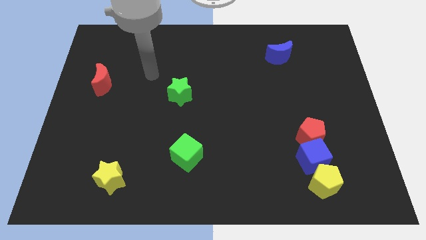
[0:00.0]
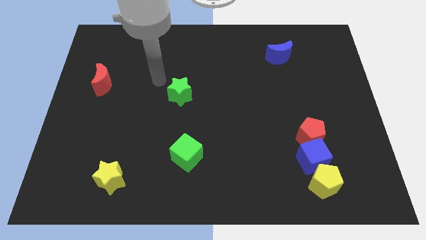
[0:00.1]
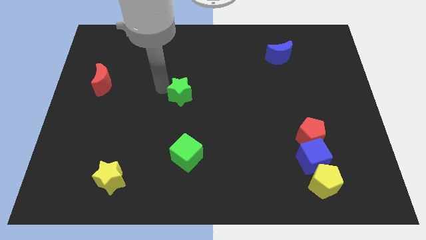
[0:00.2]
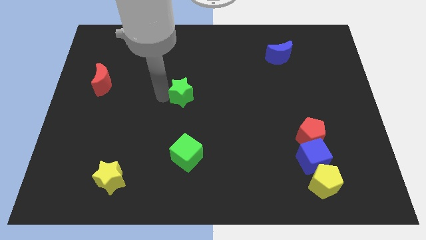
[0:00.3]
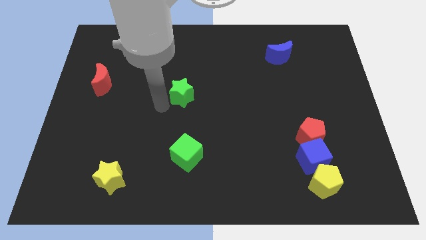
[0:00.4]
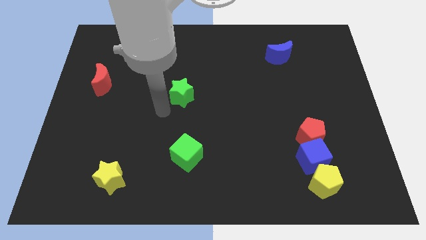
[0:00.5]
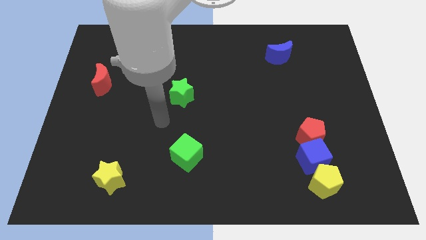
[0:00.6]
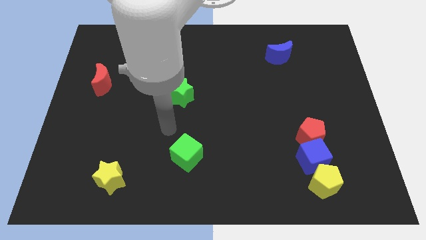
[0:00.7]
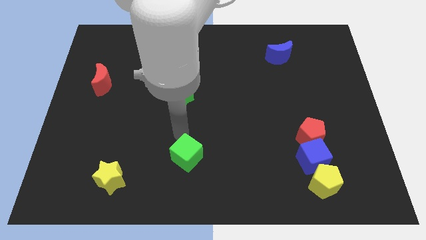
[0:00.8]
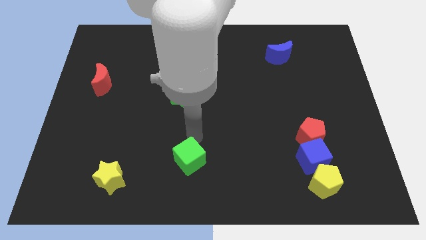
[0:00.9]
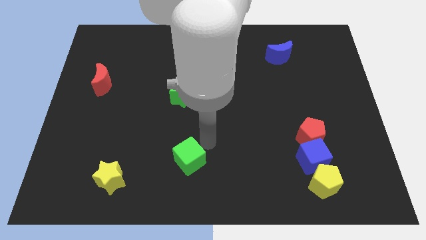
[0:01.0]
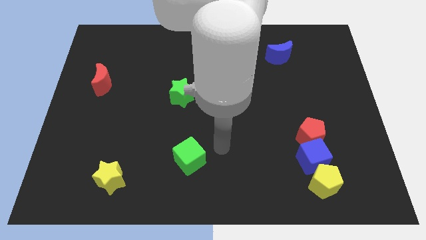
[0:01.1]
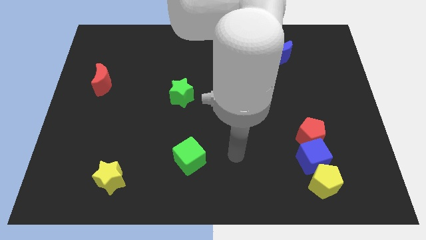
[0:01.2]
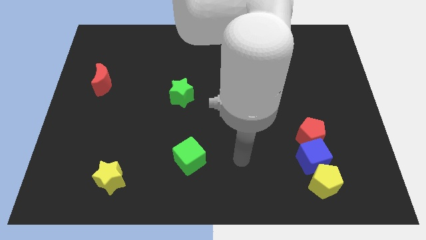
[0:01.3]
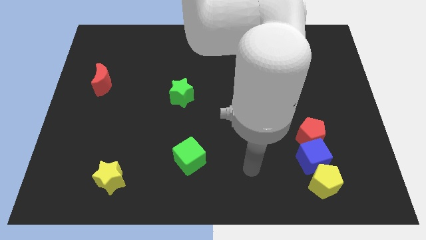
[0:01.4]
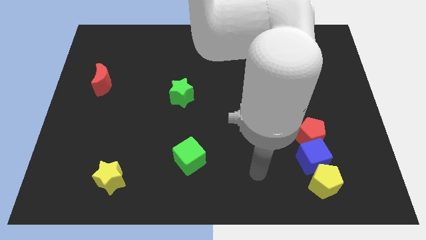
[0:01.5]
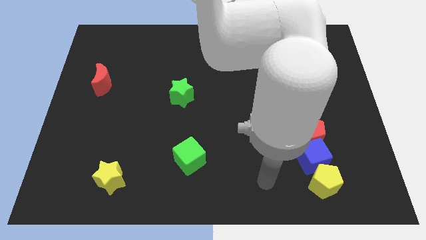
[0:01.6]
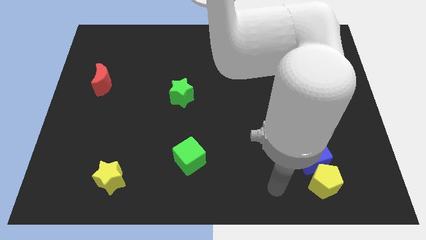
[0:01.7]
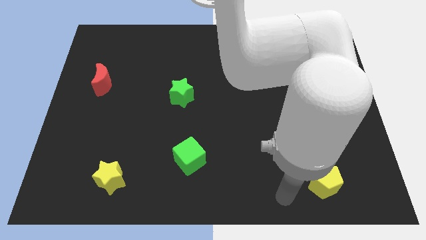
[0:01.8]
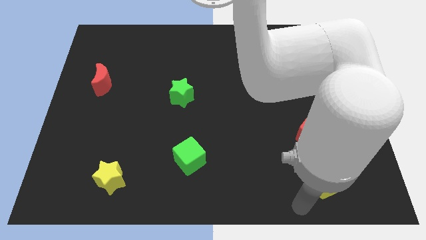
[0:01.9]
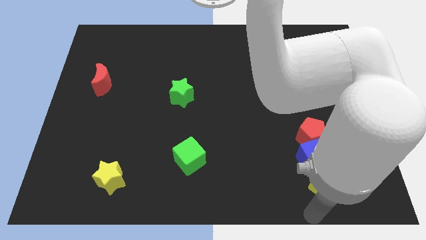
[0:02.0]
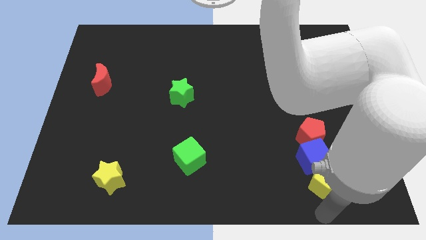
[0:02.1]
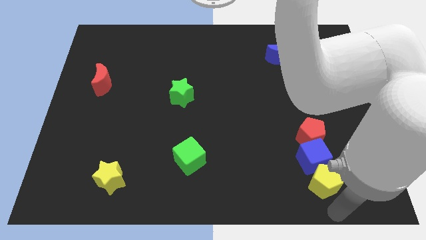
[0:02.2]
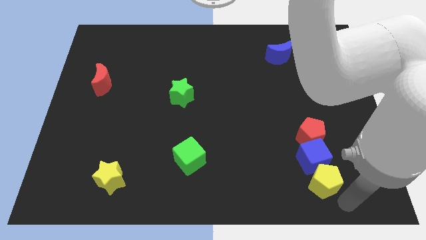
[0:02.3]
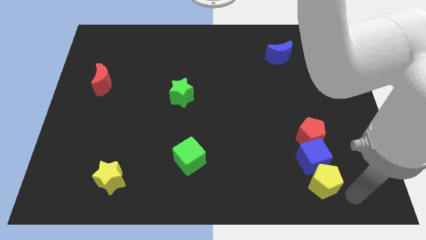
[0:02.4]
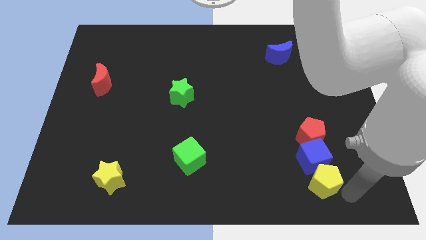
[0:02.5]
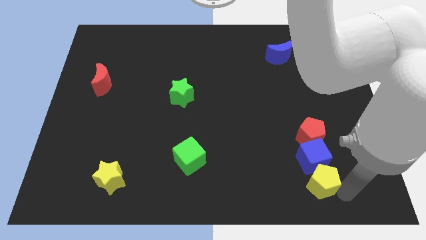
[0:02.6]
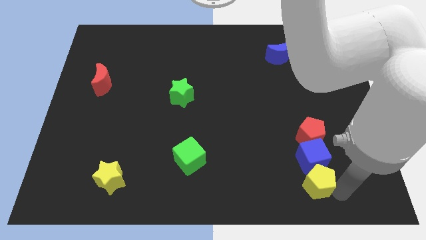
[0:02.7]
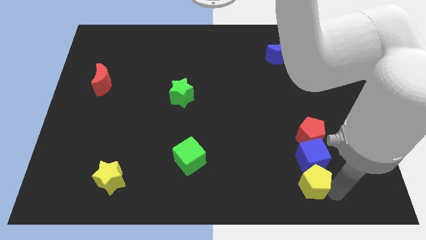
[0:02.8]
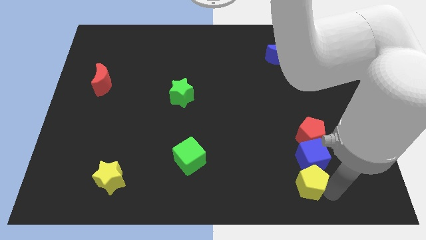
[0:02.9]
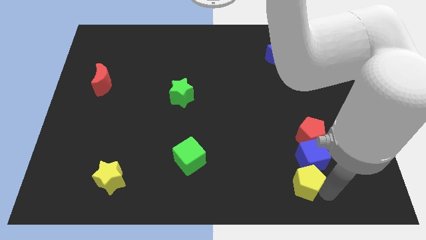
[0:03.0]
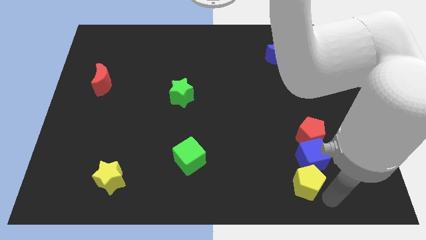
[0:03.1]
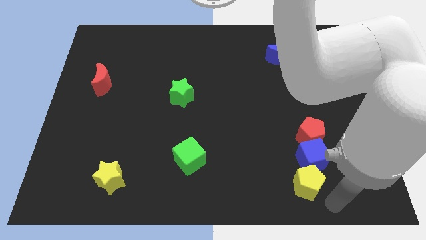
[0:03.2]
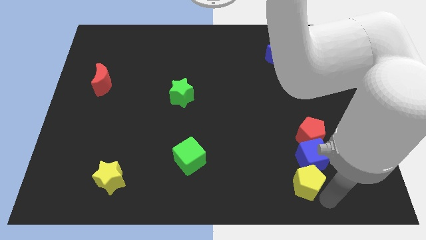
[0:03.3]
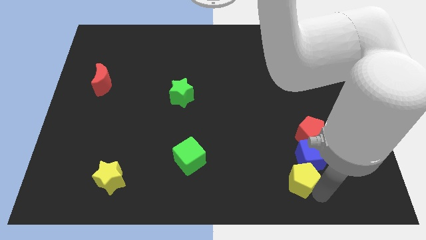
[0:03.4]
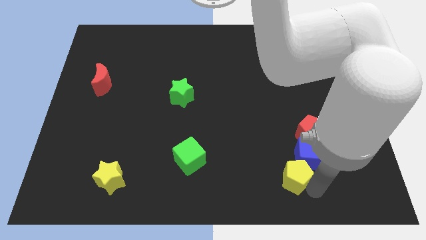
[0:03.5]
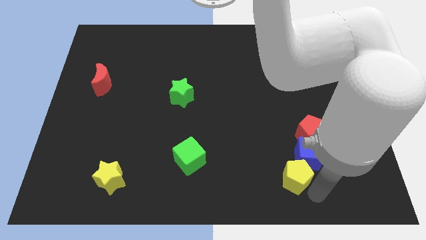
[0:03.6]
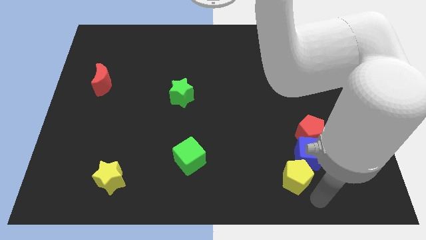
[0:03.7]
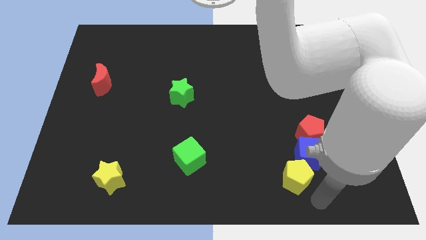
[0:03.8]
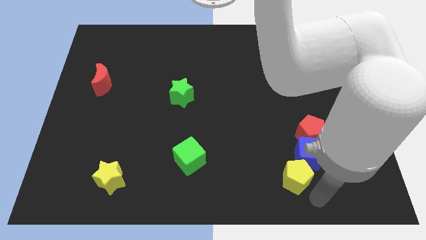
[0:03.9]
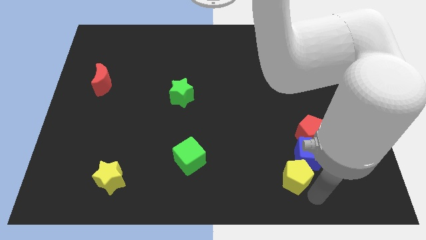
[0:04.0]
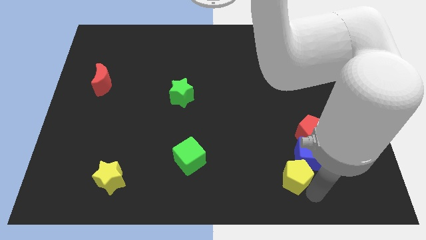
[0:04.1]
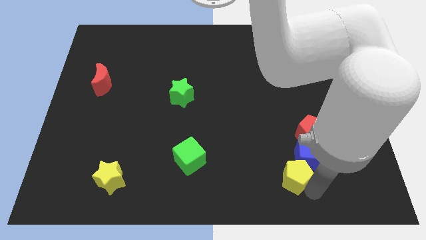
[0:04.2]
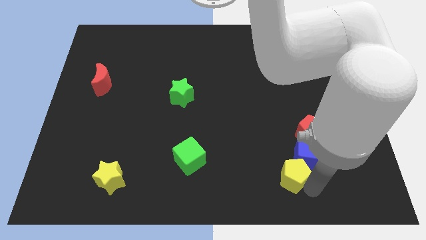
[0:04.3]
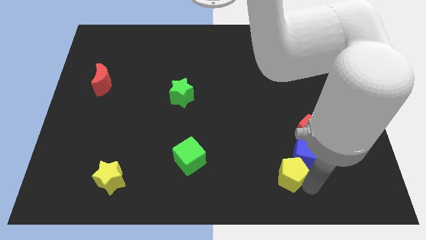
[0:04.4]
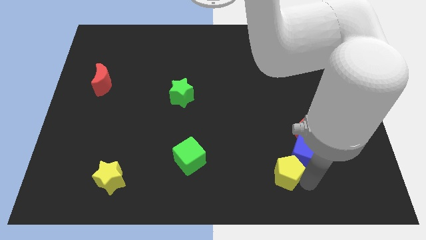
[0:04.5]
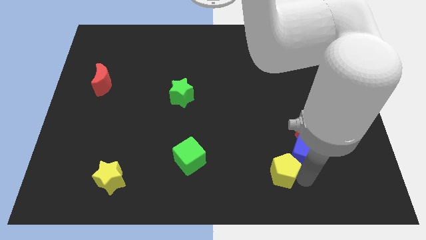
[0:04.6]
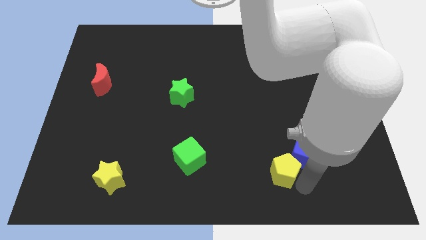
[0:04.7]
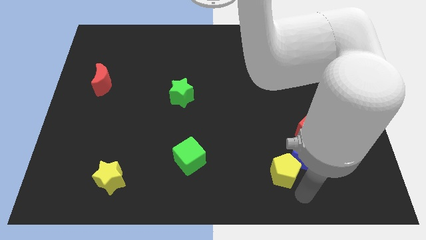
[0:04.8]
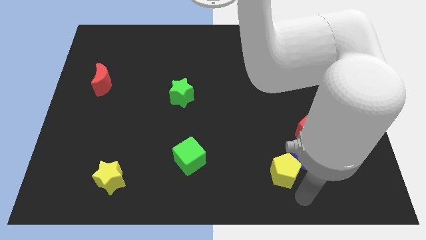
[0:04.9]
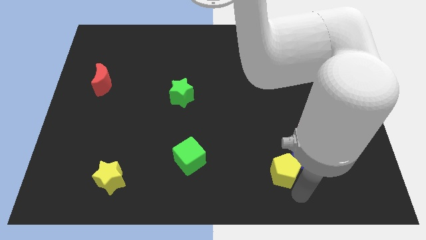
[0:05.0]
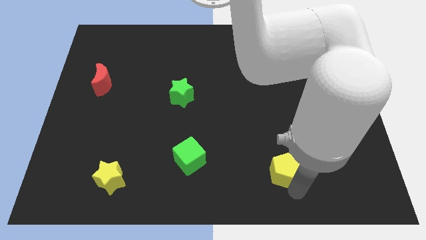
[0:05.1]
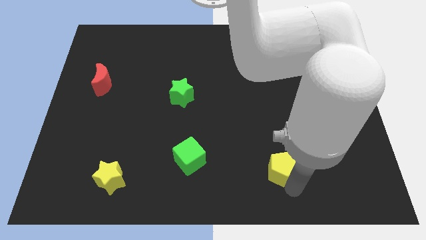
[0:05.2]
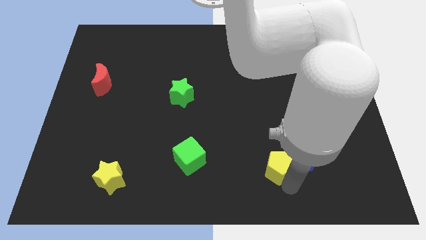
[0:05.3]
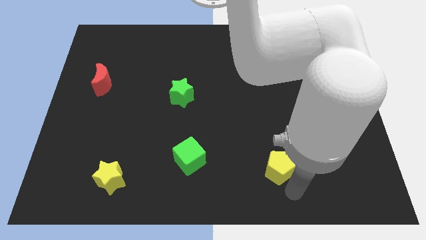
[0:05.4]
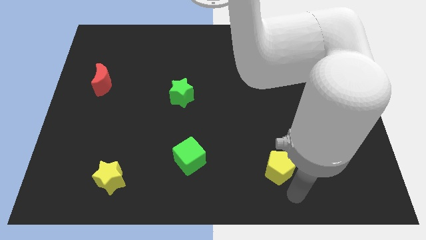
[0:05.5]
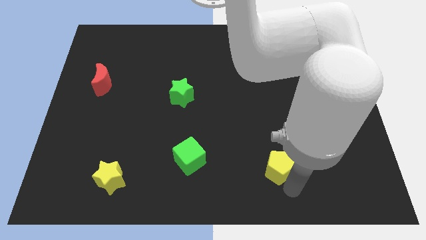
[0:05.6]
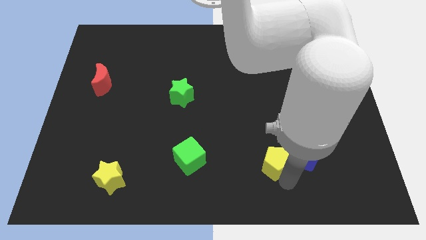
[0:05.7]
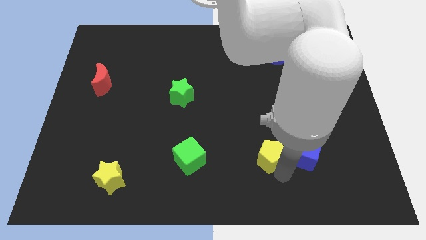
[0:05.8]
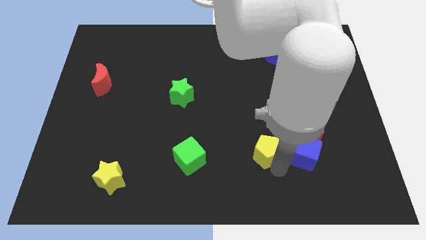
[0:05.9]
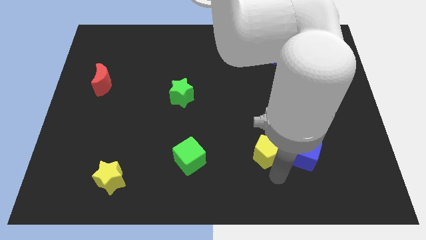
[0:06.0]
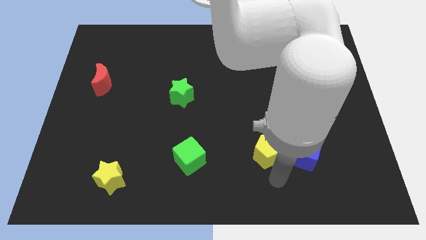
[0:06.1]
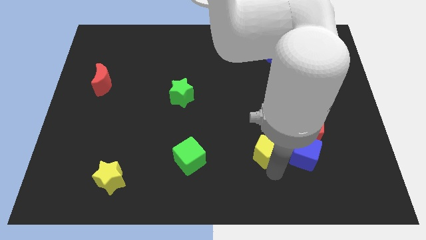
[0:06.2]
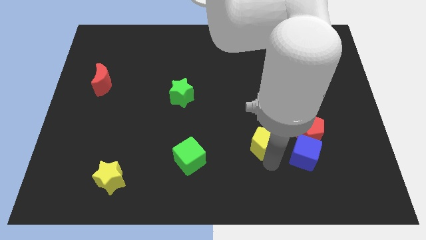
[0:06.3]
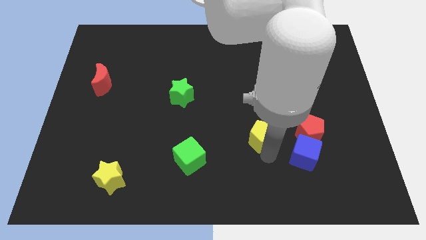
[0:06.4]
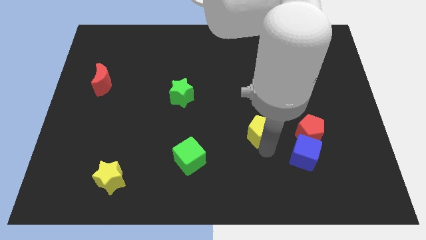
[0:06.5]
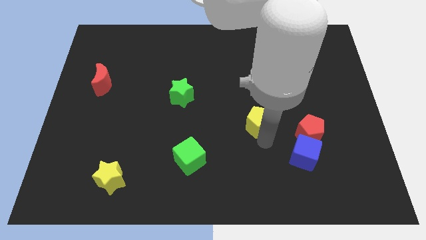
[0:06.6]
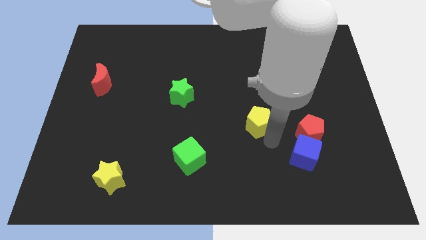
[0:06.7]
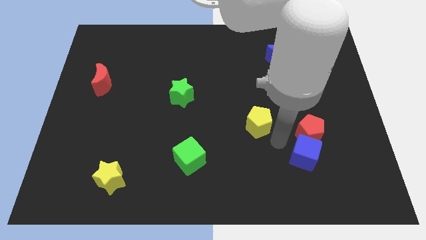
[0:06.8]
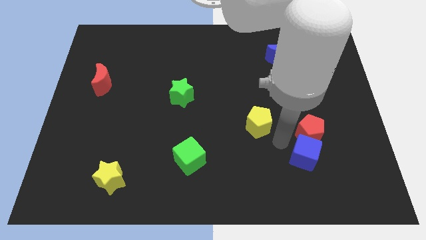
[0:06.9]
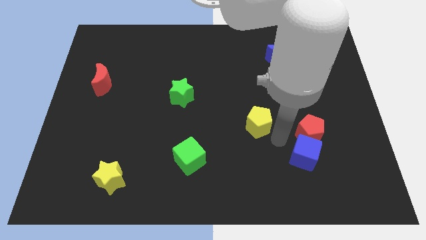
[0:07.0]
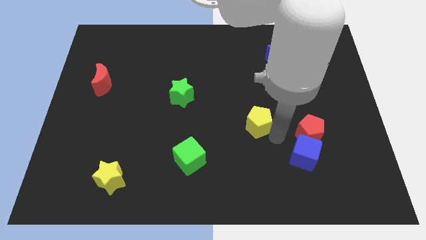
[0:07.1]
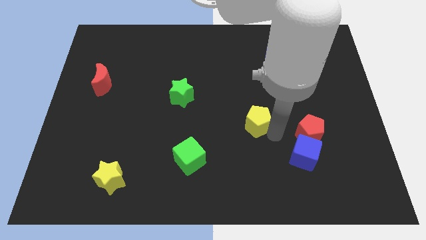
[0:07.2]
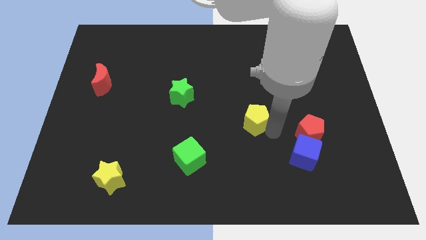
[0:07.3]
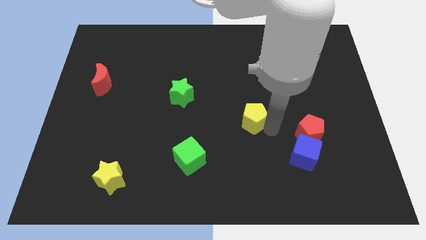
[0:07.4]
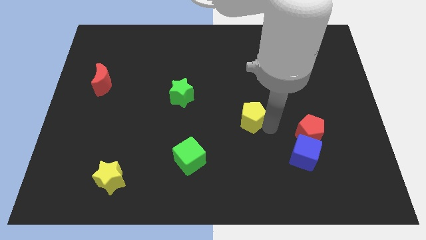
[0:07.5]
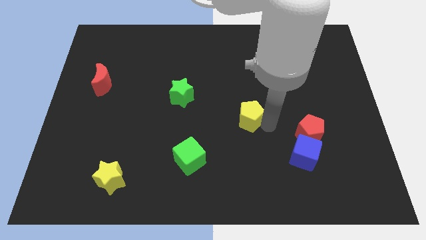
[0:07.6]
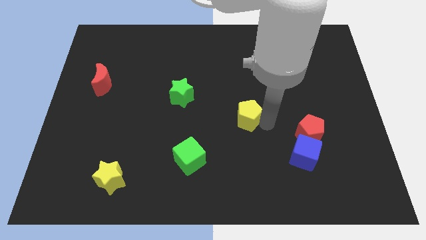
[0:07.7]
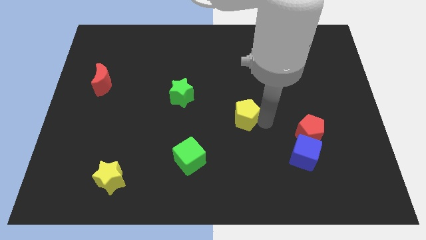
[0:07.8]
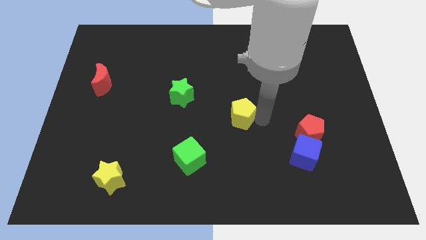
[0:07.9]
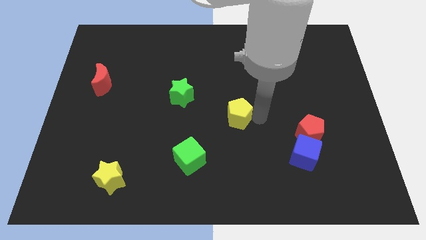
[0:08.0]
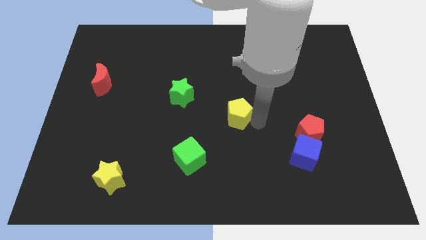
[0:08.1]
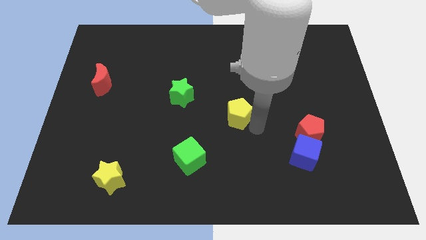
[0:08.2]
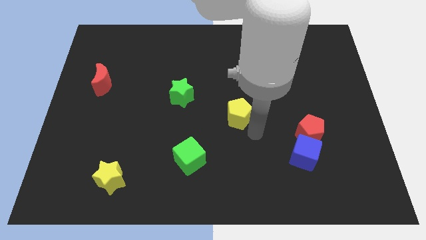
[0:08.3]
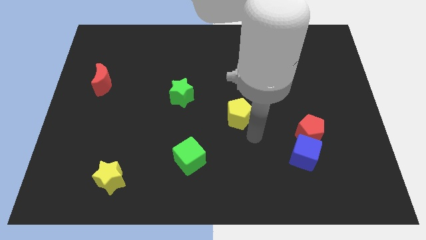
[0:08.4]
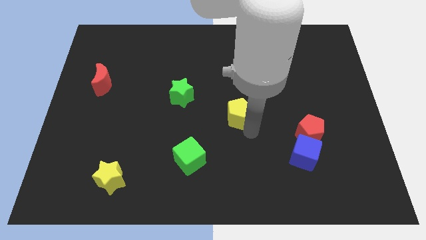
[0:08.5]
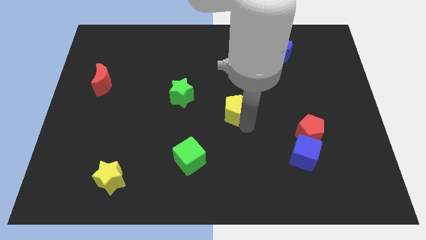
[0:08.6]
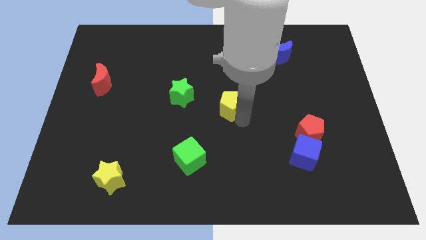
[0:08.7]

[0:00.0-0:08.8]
put the yellow pentagon right of the green star
